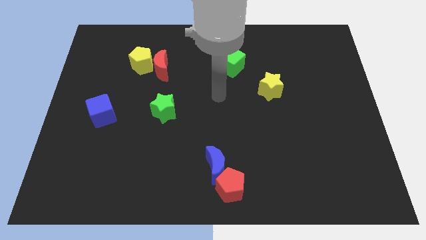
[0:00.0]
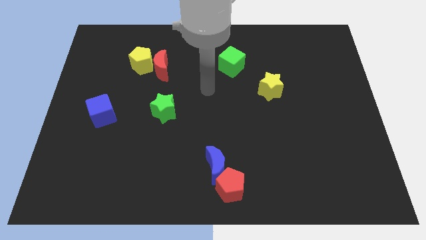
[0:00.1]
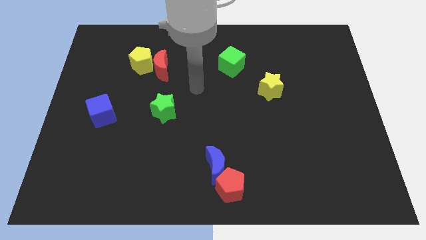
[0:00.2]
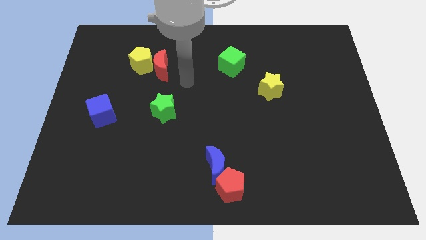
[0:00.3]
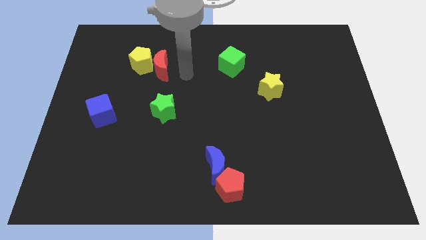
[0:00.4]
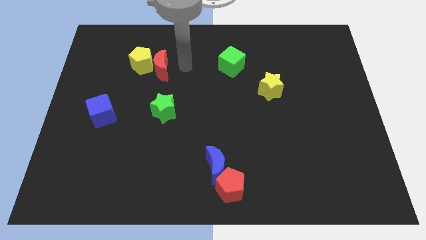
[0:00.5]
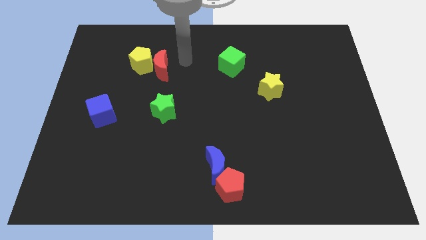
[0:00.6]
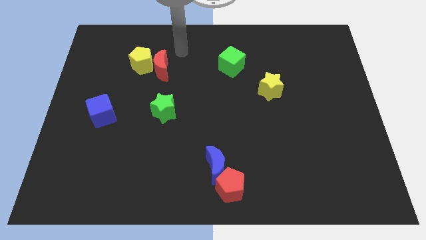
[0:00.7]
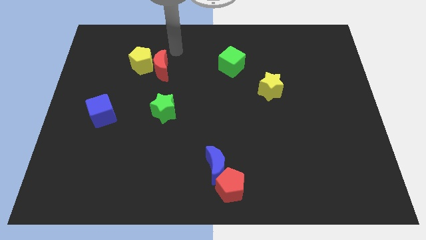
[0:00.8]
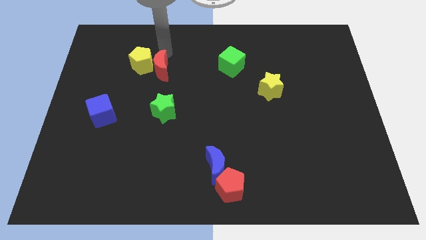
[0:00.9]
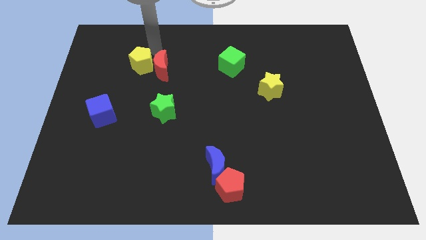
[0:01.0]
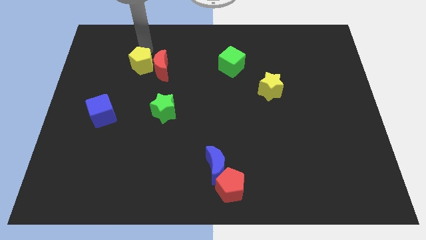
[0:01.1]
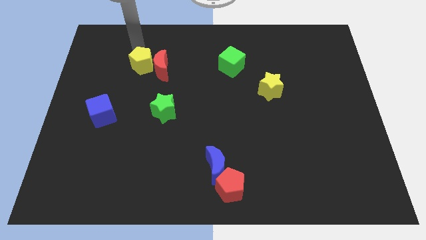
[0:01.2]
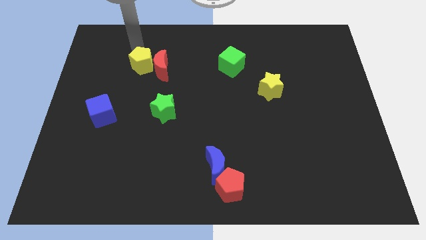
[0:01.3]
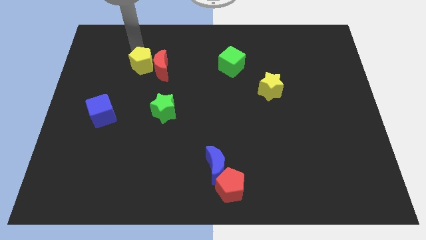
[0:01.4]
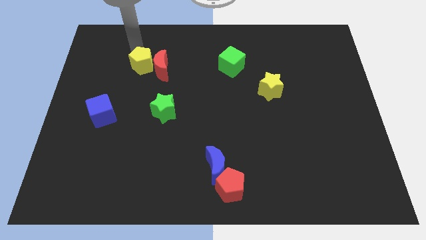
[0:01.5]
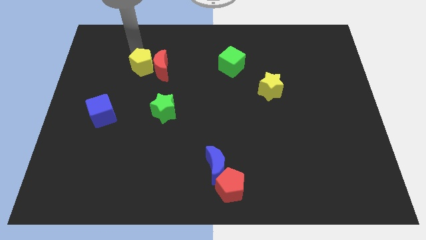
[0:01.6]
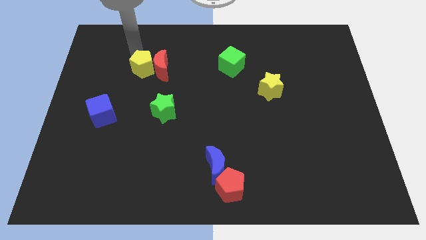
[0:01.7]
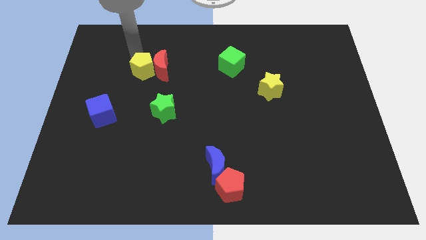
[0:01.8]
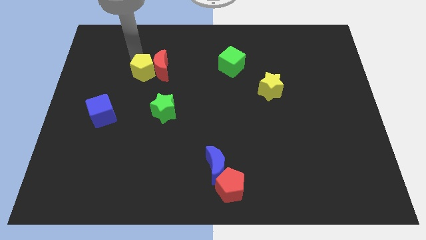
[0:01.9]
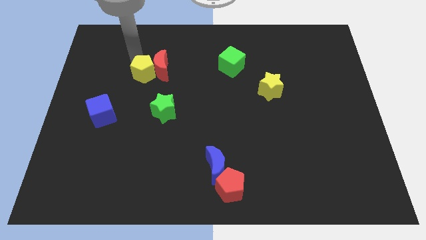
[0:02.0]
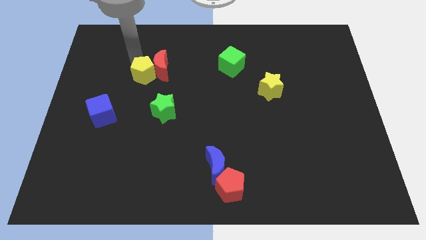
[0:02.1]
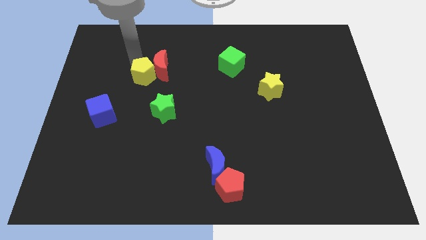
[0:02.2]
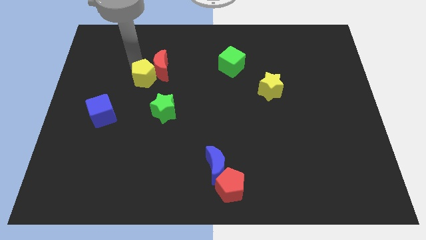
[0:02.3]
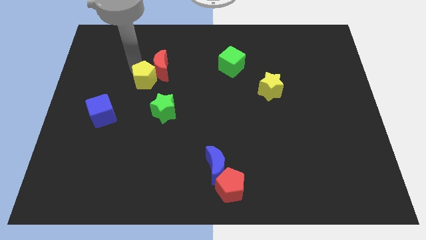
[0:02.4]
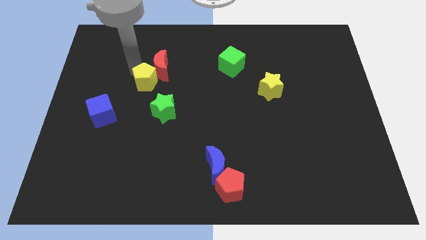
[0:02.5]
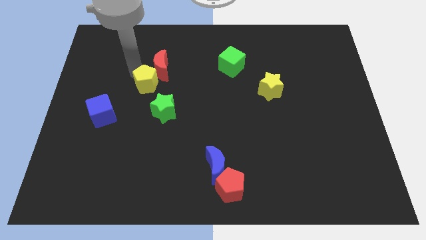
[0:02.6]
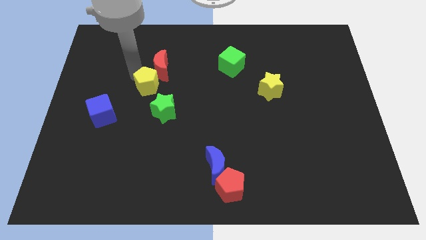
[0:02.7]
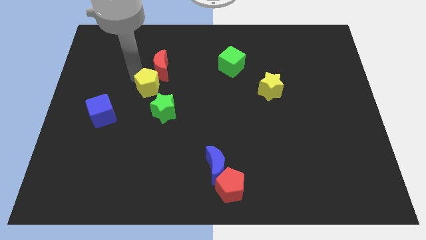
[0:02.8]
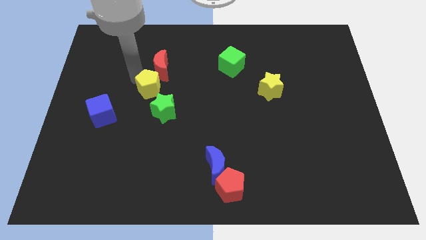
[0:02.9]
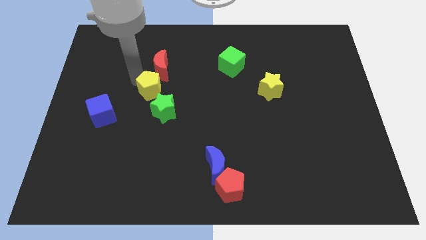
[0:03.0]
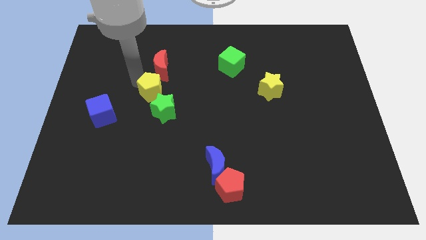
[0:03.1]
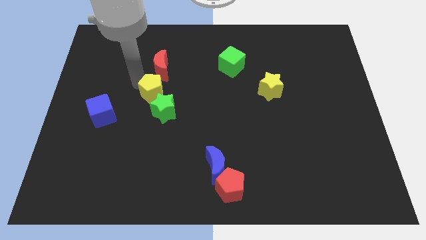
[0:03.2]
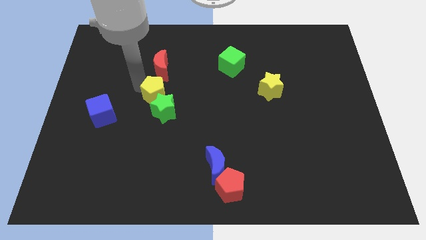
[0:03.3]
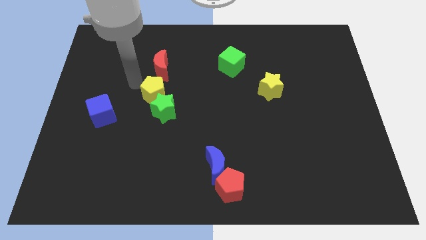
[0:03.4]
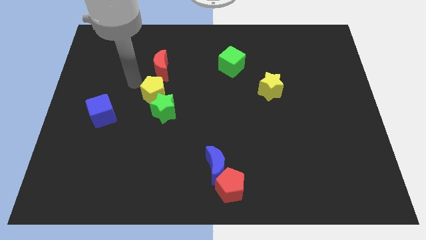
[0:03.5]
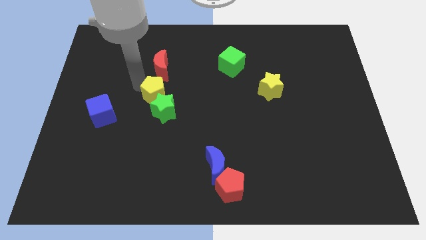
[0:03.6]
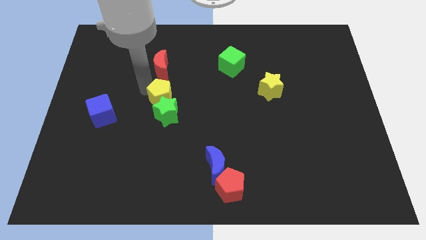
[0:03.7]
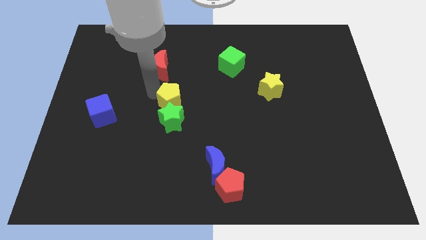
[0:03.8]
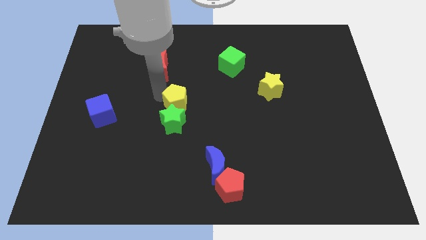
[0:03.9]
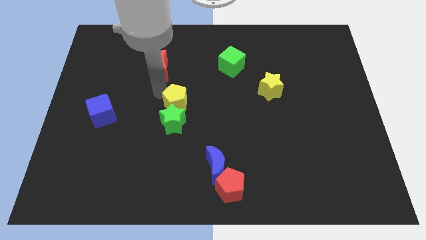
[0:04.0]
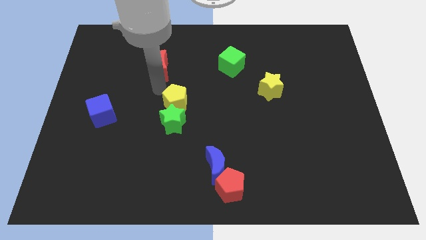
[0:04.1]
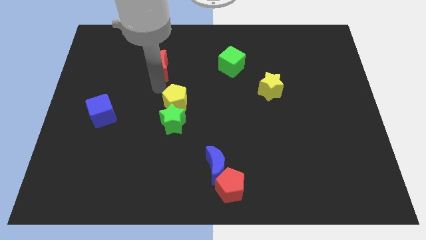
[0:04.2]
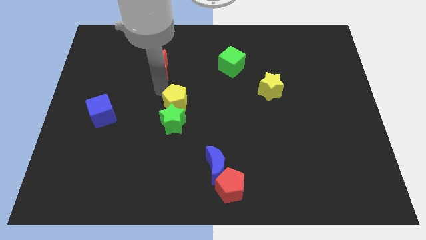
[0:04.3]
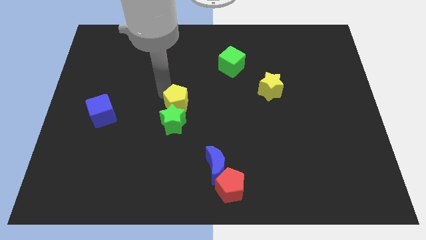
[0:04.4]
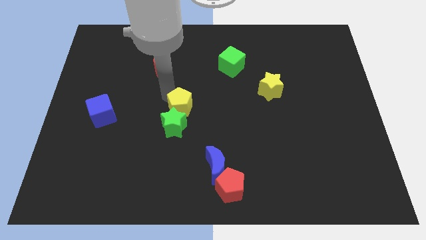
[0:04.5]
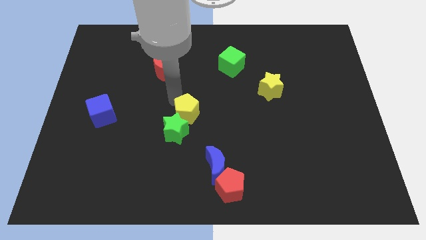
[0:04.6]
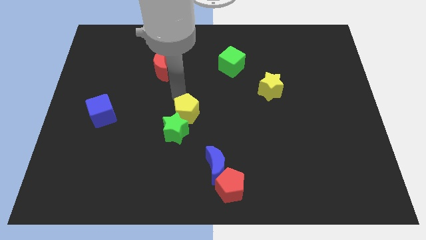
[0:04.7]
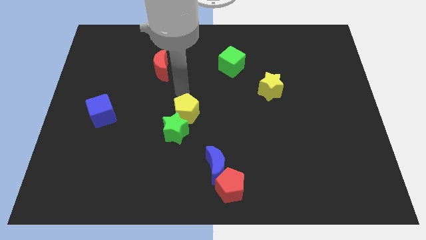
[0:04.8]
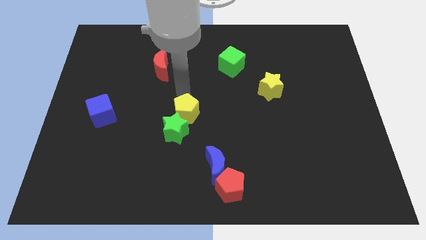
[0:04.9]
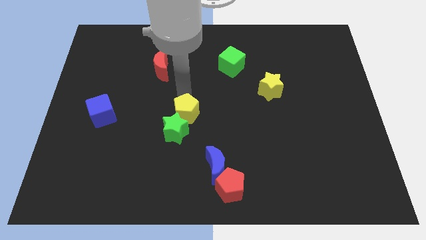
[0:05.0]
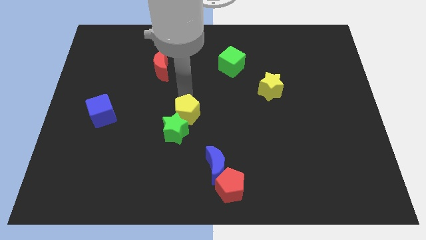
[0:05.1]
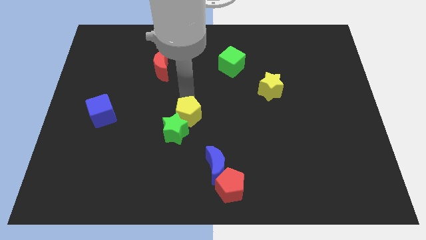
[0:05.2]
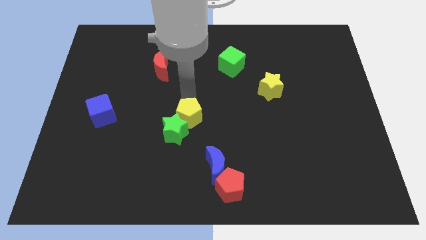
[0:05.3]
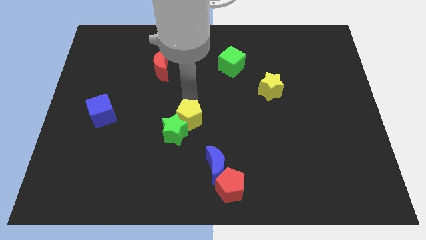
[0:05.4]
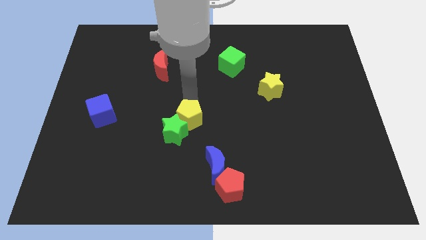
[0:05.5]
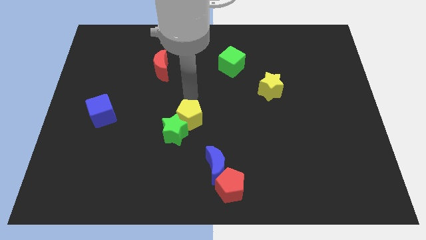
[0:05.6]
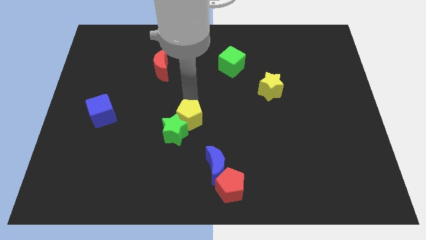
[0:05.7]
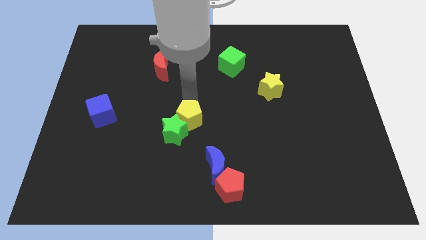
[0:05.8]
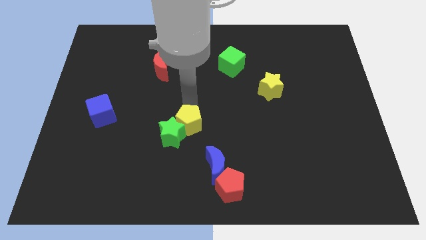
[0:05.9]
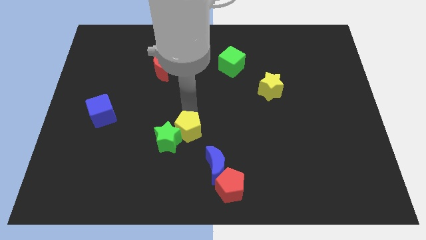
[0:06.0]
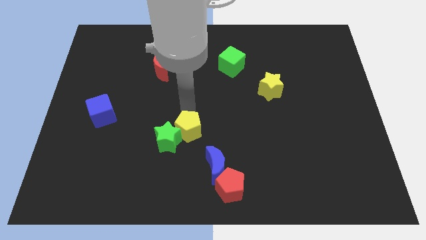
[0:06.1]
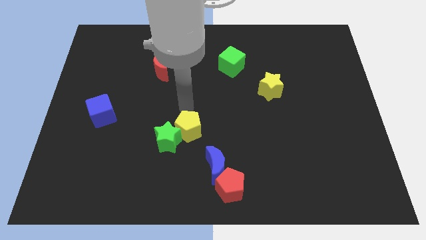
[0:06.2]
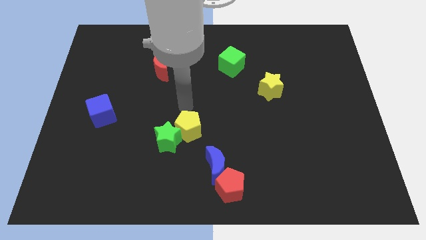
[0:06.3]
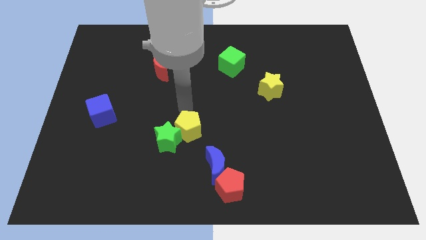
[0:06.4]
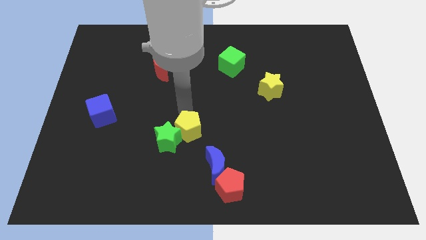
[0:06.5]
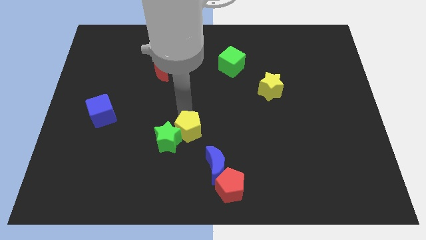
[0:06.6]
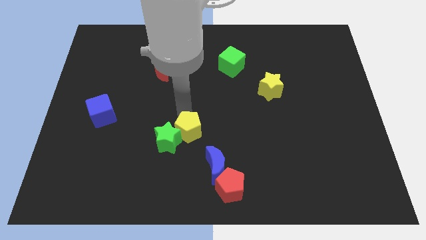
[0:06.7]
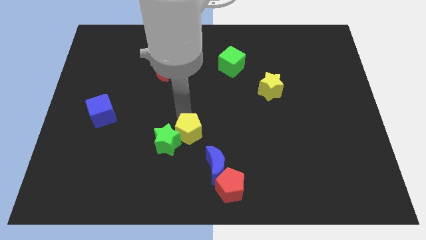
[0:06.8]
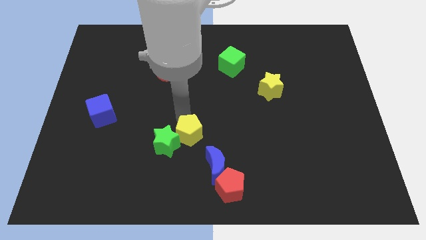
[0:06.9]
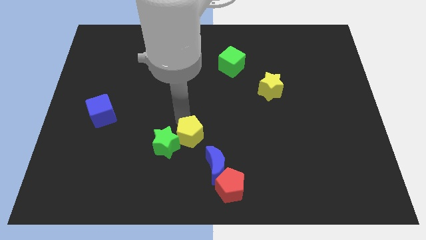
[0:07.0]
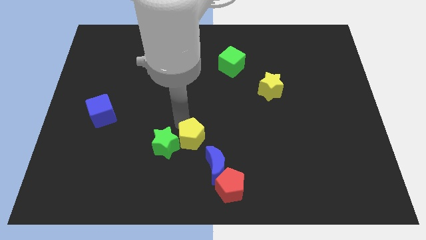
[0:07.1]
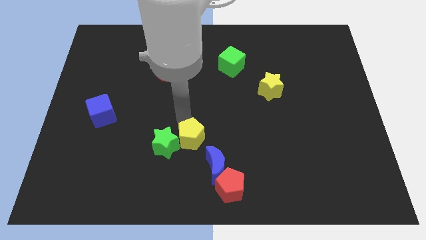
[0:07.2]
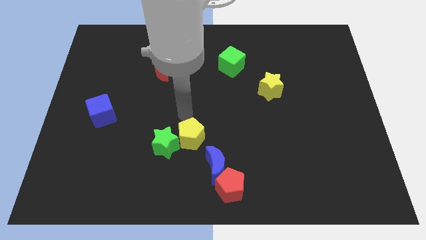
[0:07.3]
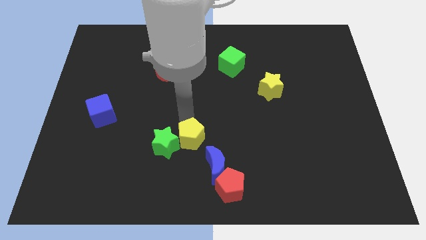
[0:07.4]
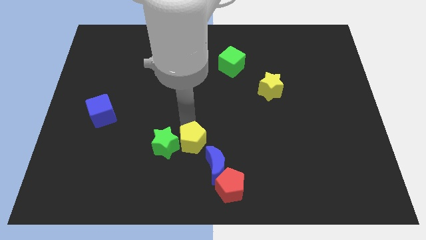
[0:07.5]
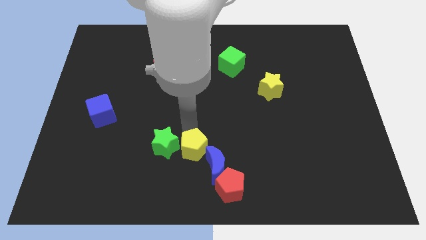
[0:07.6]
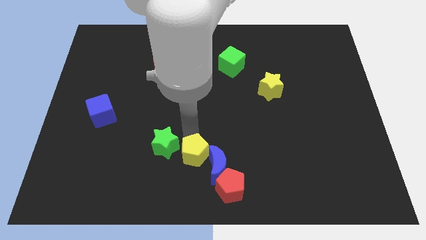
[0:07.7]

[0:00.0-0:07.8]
slide the yellow pentagon close to the blue moon
